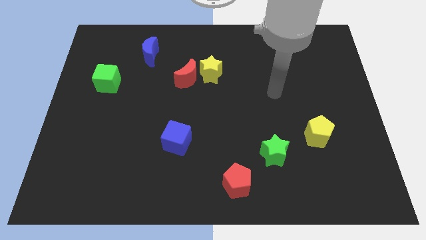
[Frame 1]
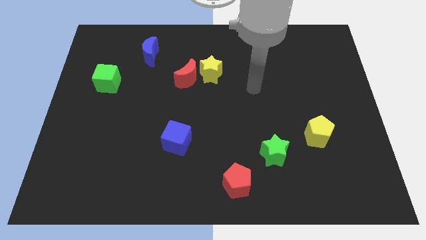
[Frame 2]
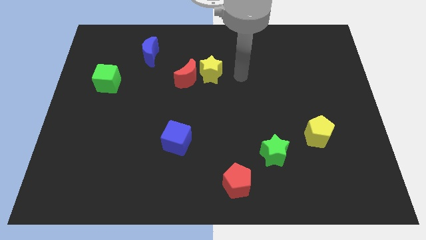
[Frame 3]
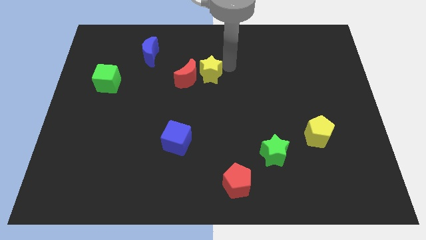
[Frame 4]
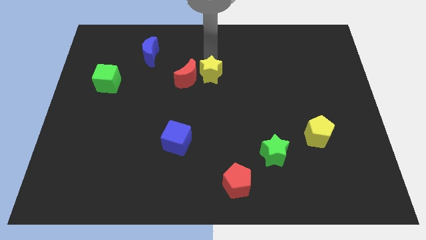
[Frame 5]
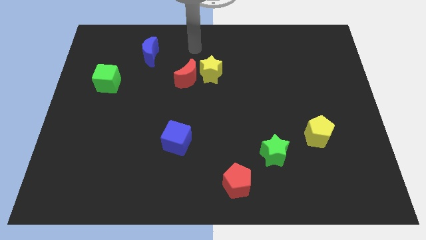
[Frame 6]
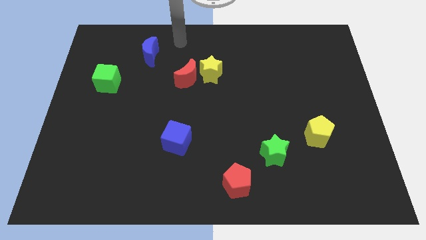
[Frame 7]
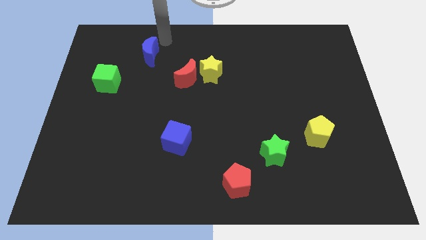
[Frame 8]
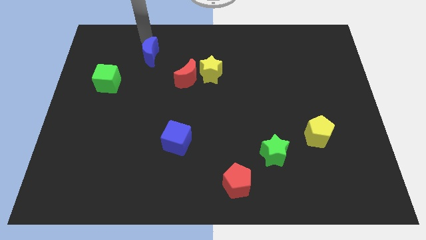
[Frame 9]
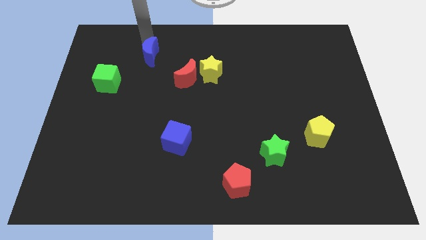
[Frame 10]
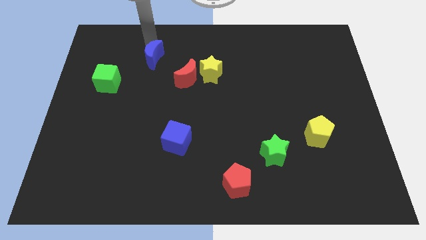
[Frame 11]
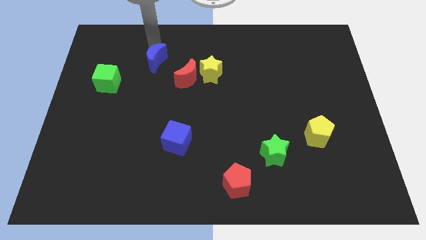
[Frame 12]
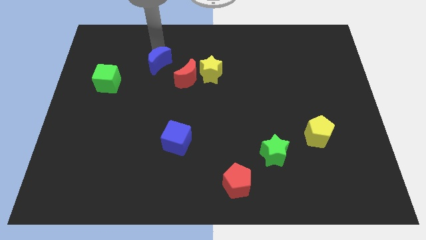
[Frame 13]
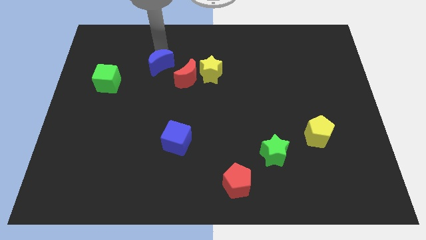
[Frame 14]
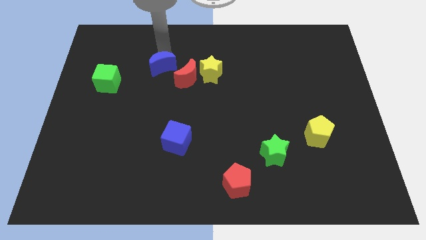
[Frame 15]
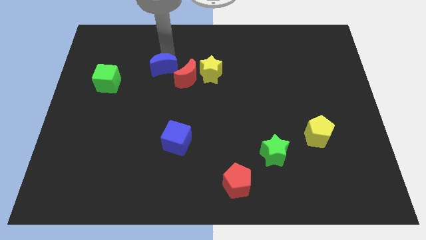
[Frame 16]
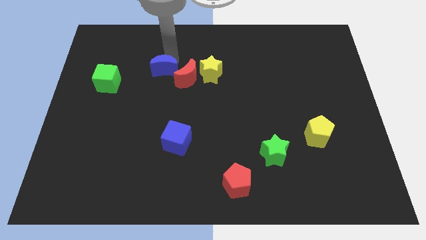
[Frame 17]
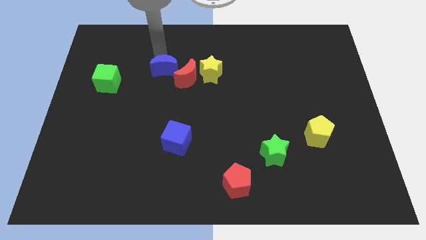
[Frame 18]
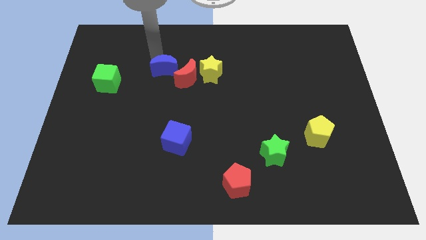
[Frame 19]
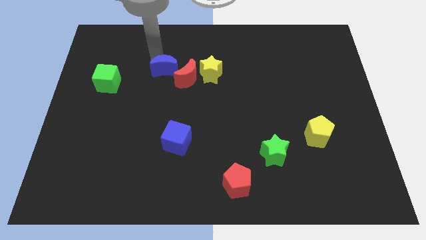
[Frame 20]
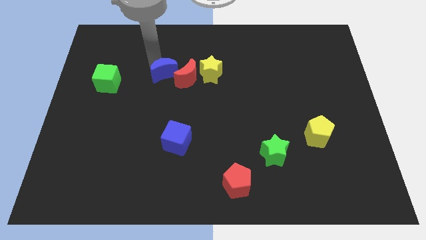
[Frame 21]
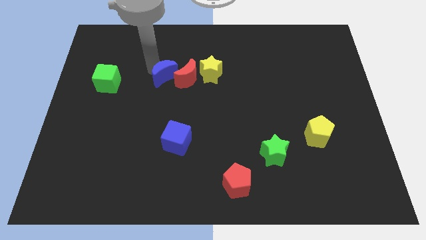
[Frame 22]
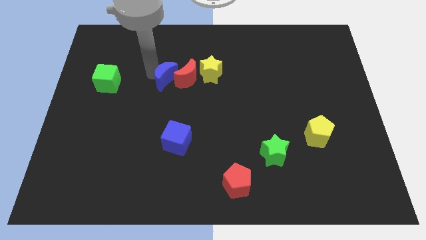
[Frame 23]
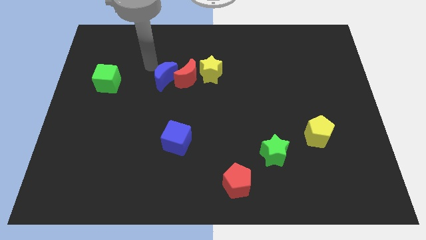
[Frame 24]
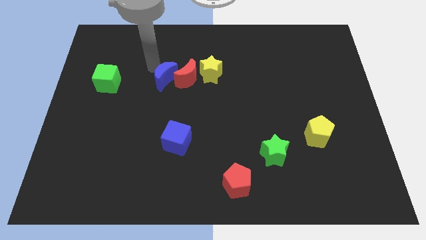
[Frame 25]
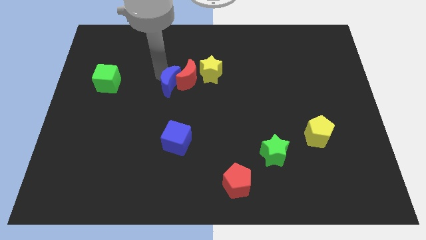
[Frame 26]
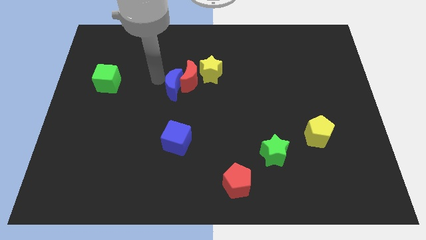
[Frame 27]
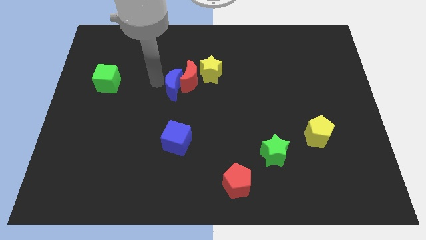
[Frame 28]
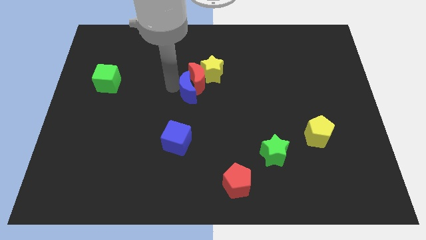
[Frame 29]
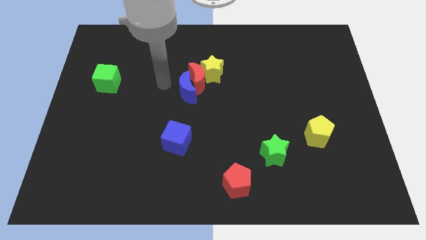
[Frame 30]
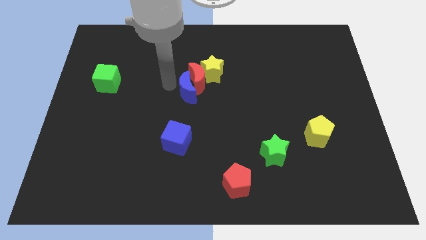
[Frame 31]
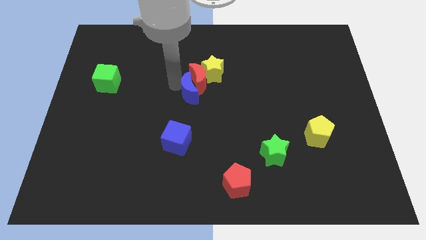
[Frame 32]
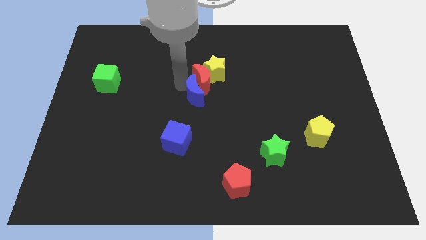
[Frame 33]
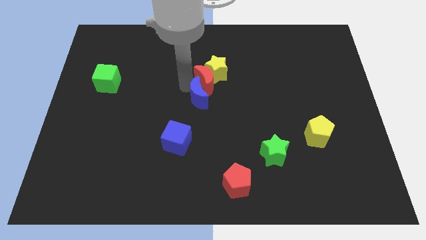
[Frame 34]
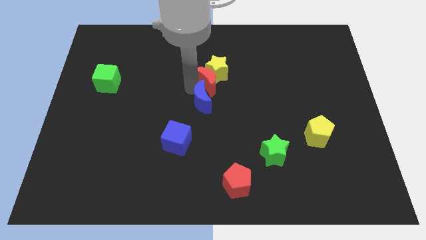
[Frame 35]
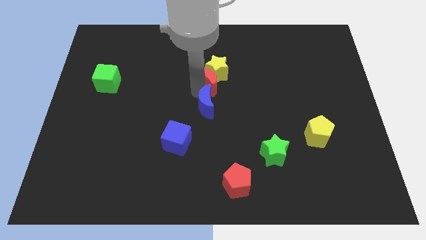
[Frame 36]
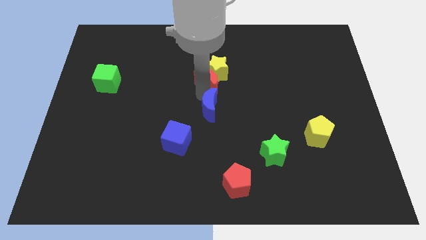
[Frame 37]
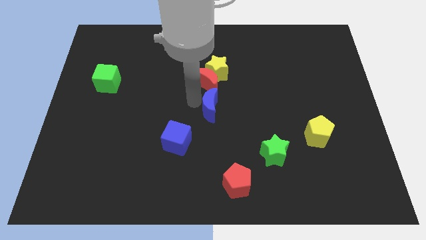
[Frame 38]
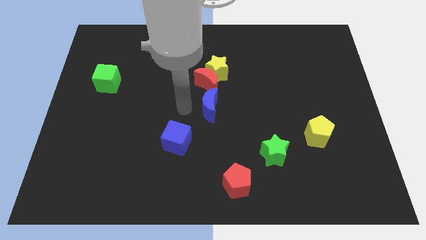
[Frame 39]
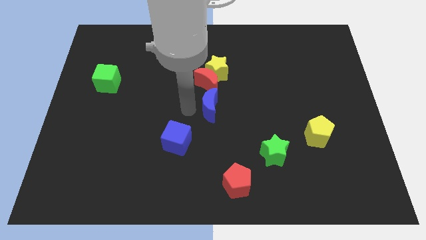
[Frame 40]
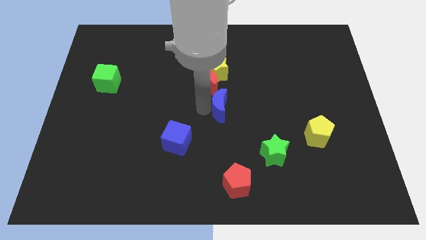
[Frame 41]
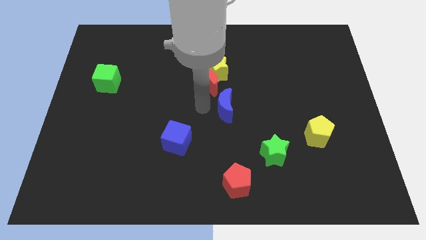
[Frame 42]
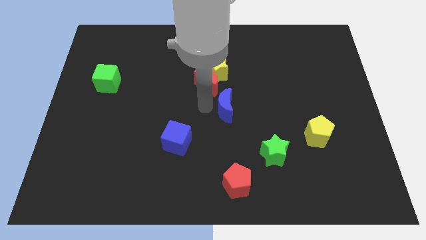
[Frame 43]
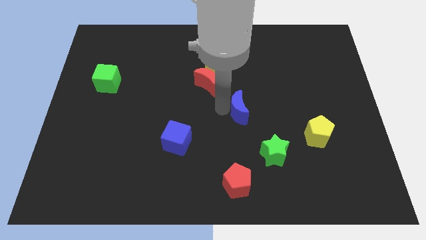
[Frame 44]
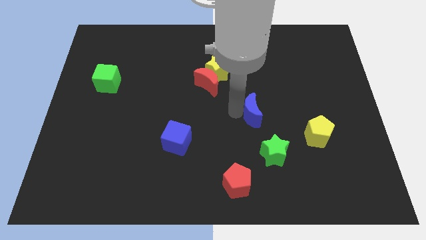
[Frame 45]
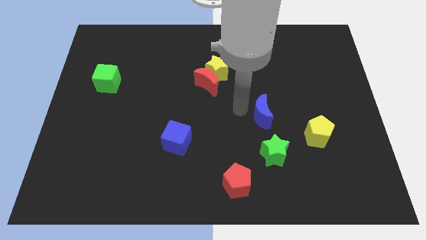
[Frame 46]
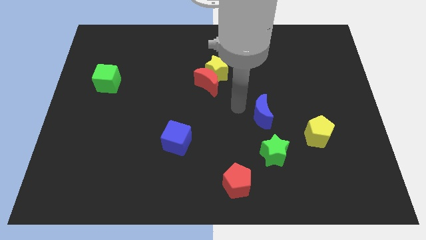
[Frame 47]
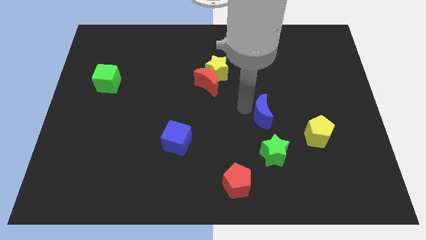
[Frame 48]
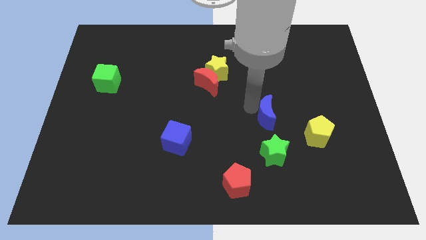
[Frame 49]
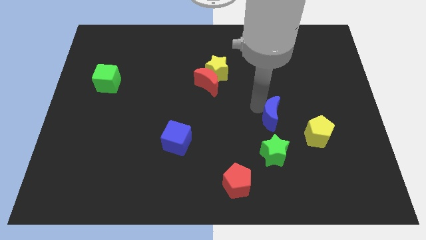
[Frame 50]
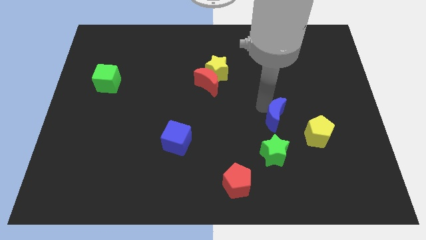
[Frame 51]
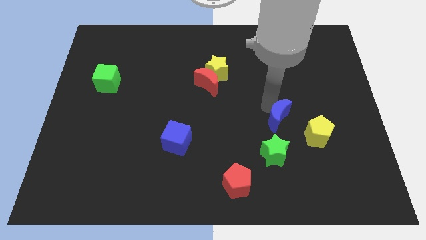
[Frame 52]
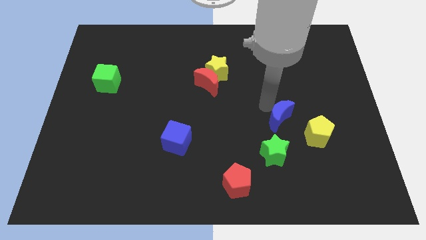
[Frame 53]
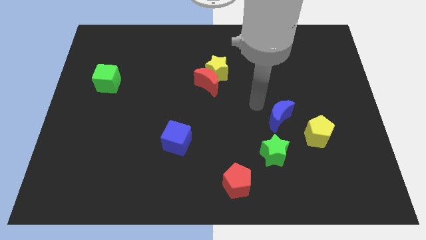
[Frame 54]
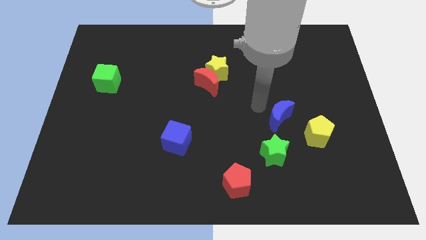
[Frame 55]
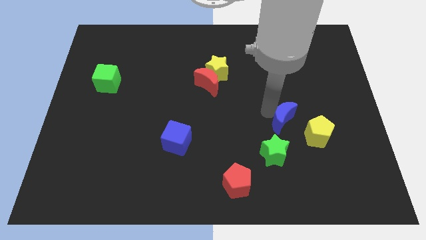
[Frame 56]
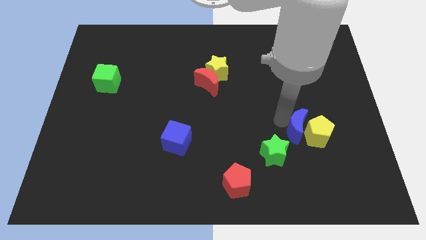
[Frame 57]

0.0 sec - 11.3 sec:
push the blue moon towards the yellow pentagon

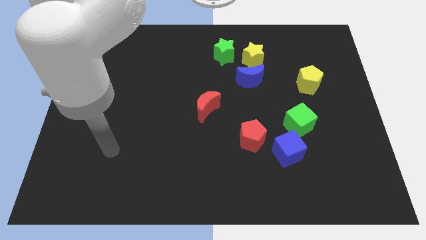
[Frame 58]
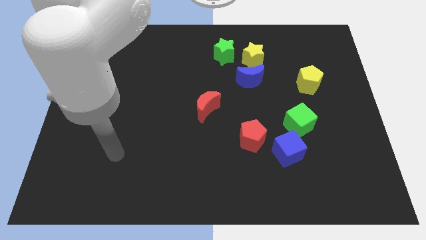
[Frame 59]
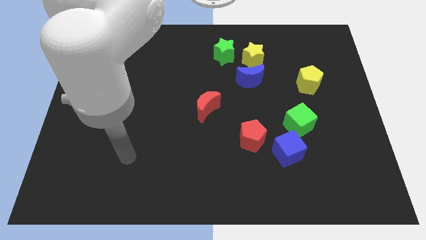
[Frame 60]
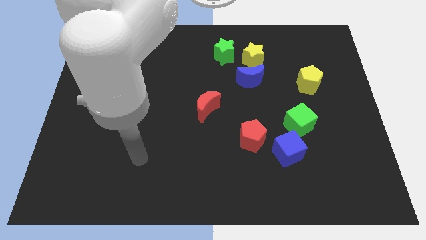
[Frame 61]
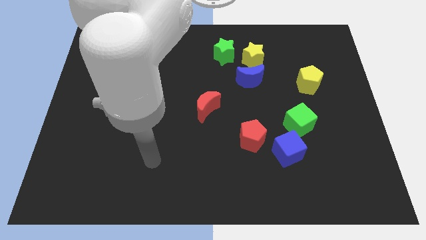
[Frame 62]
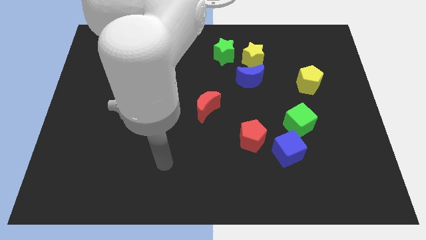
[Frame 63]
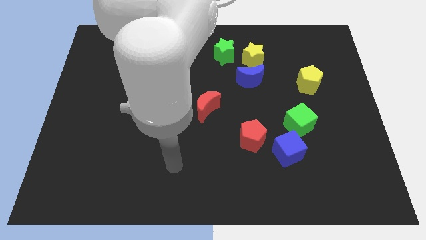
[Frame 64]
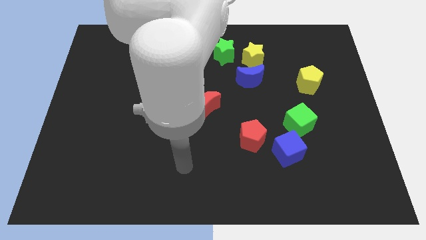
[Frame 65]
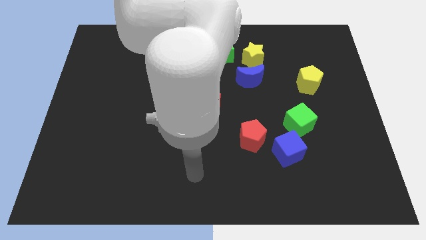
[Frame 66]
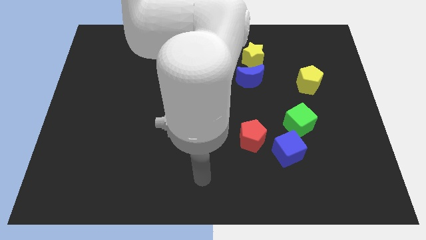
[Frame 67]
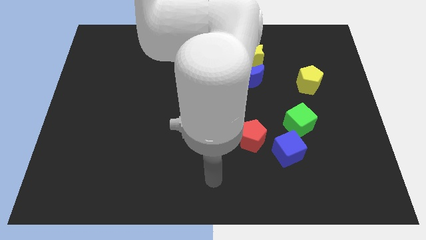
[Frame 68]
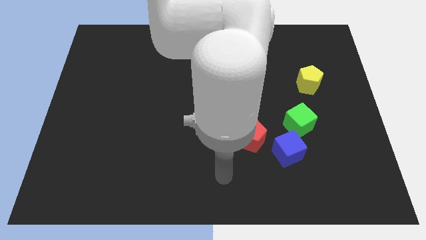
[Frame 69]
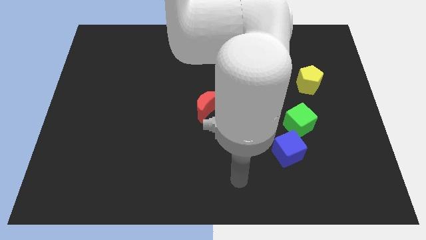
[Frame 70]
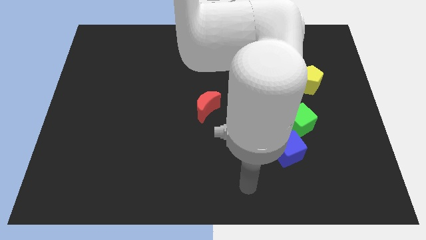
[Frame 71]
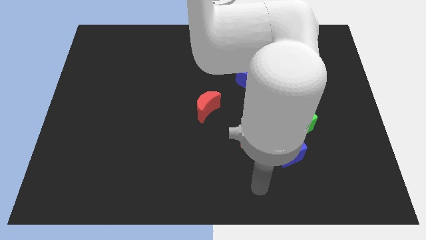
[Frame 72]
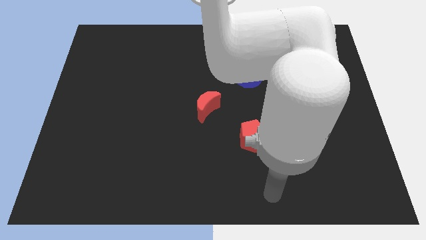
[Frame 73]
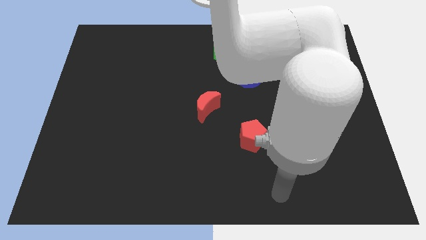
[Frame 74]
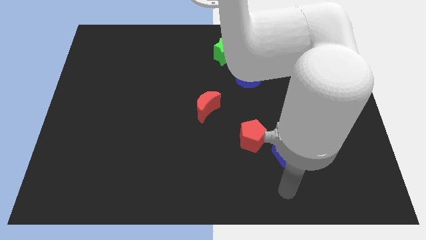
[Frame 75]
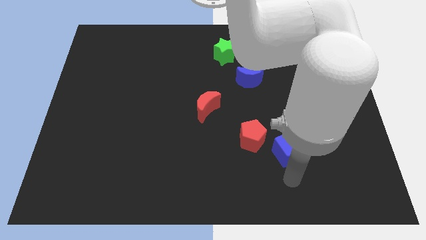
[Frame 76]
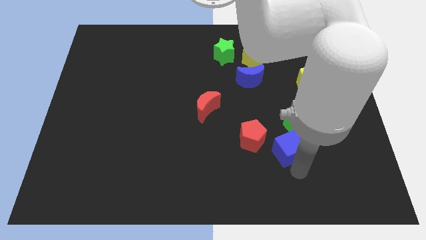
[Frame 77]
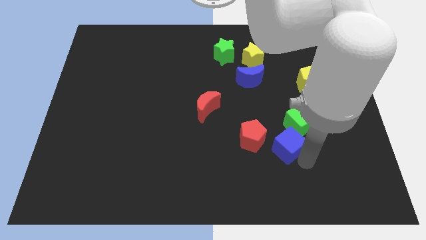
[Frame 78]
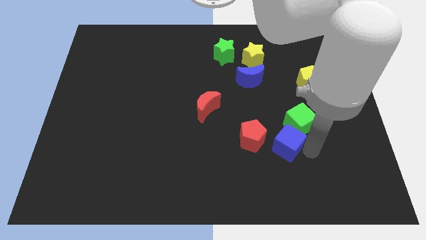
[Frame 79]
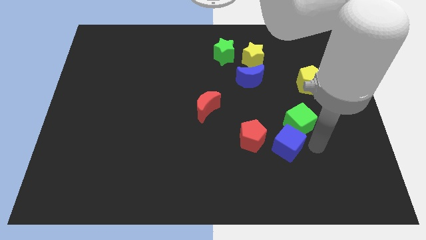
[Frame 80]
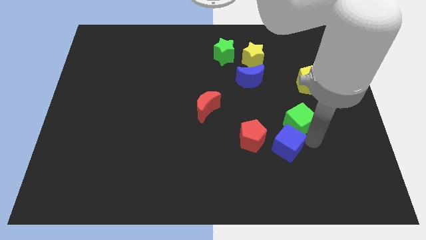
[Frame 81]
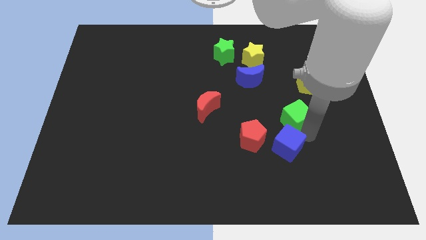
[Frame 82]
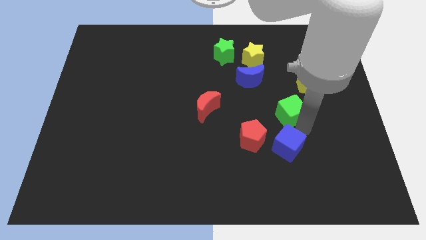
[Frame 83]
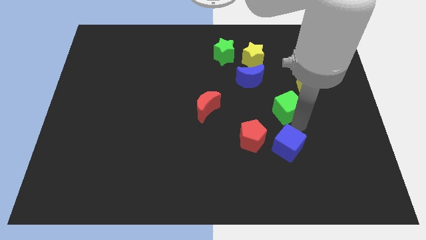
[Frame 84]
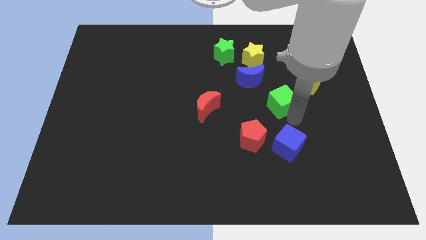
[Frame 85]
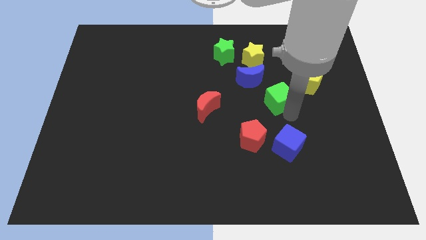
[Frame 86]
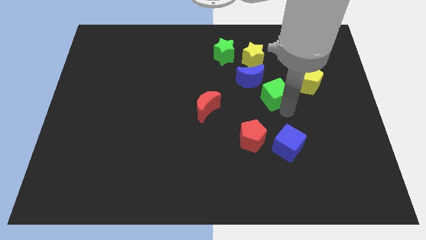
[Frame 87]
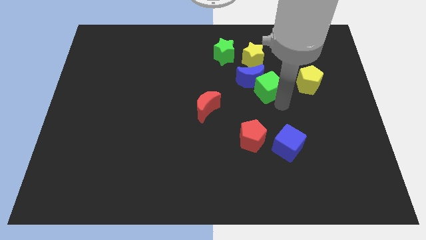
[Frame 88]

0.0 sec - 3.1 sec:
move the green cube towards the blue moon
